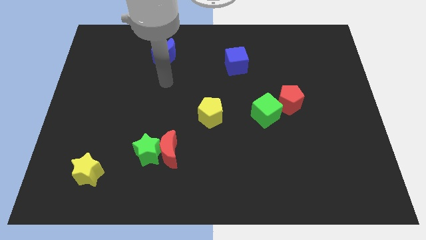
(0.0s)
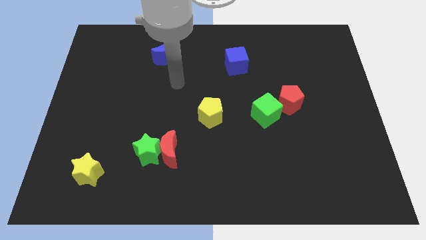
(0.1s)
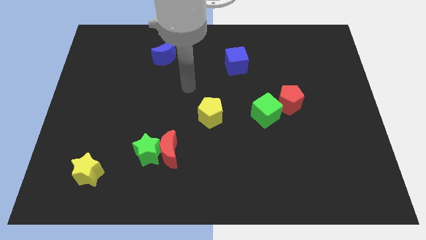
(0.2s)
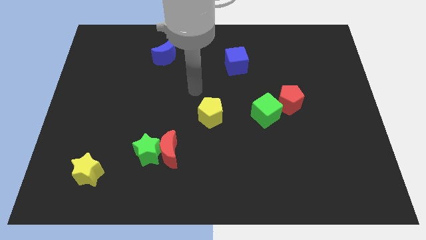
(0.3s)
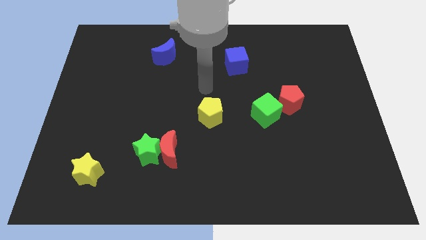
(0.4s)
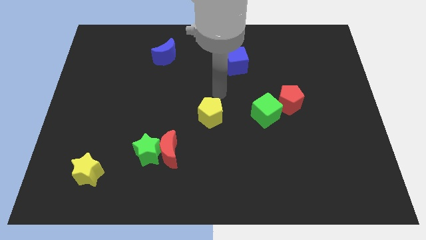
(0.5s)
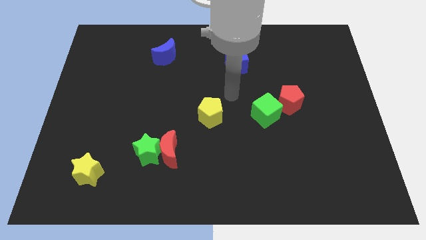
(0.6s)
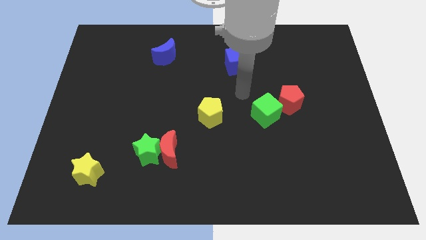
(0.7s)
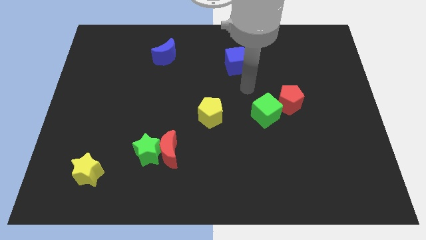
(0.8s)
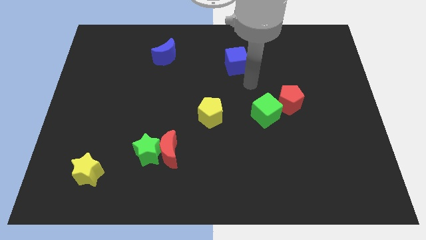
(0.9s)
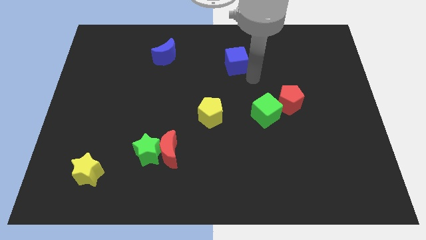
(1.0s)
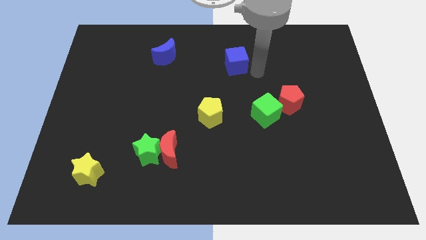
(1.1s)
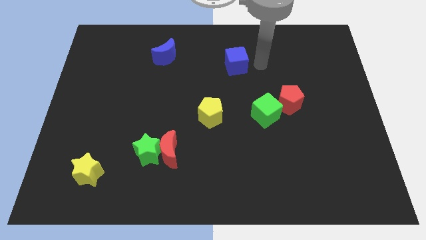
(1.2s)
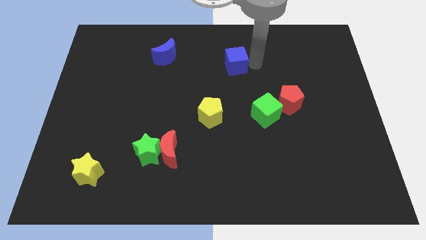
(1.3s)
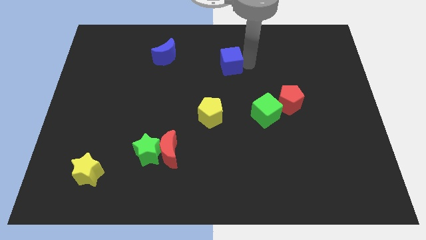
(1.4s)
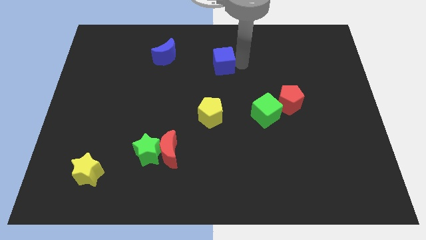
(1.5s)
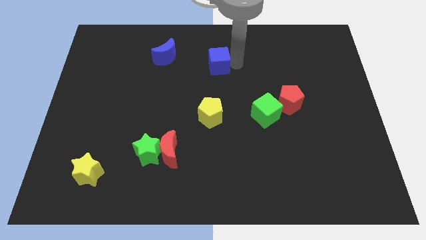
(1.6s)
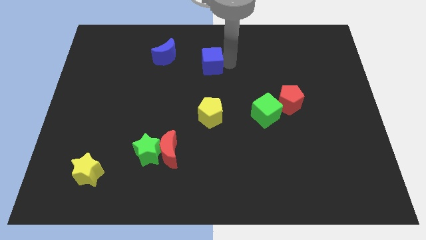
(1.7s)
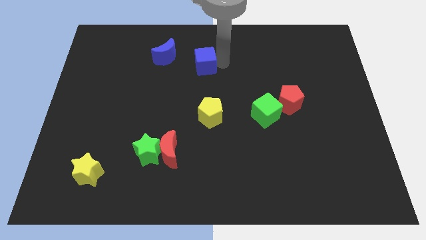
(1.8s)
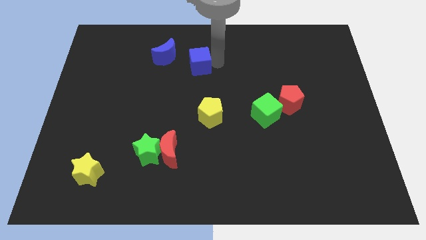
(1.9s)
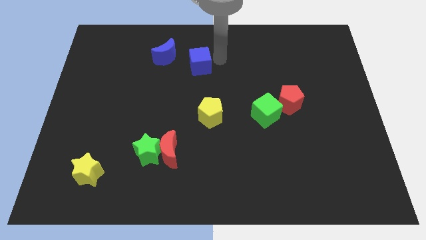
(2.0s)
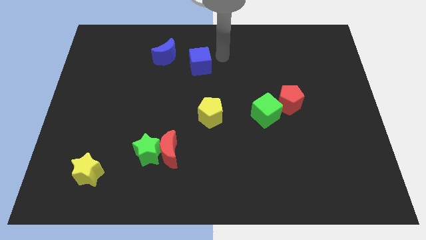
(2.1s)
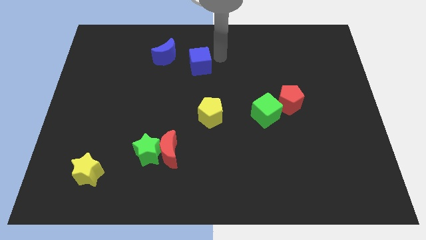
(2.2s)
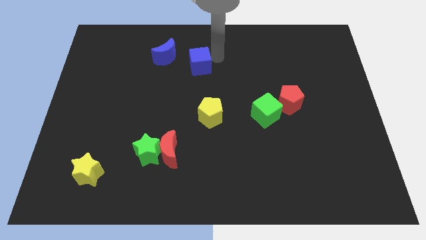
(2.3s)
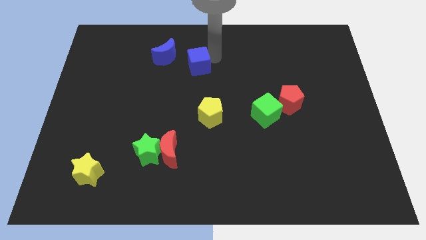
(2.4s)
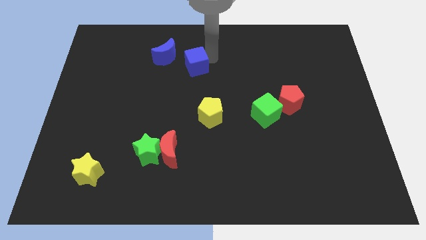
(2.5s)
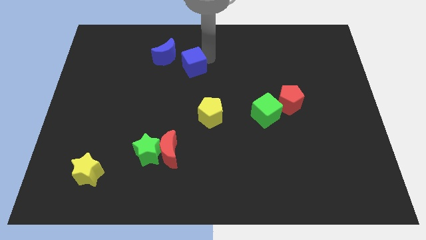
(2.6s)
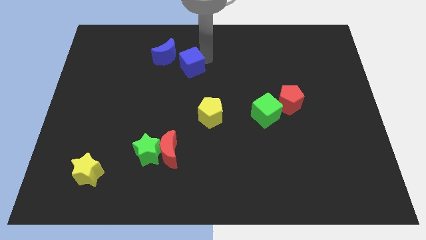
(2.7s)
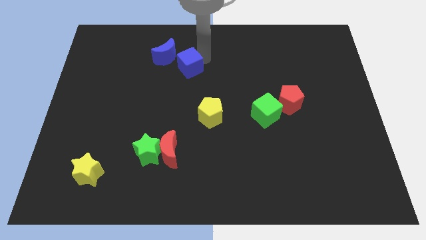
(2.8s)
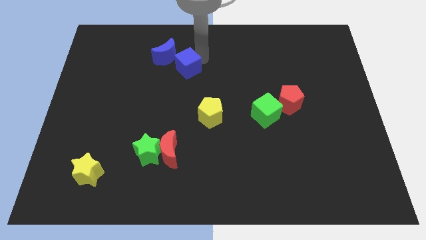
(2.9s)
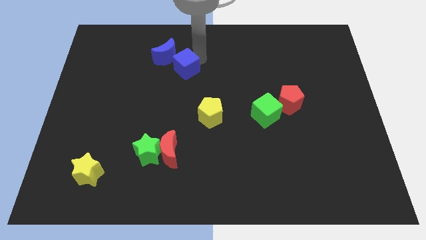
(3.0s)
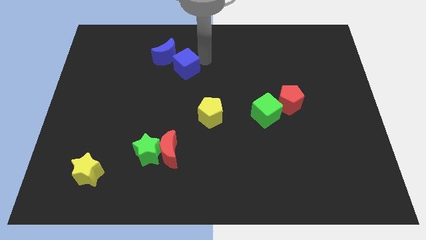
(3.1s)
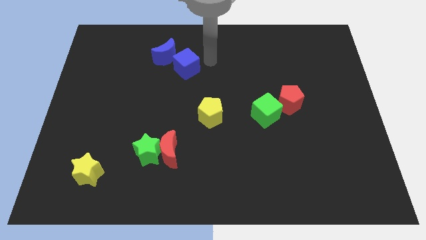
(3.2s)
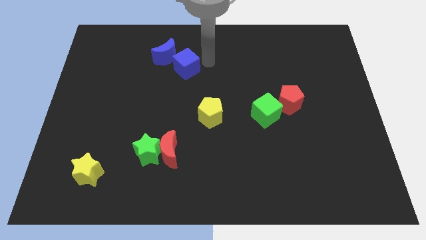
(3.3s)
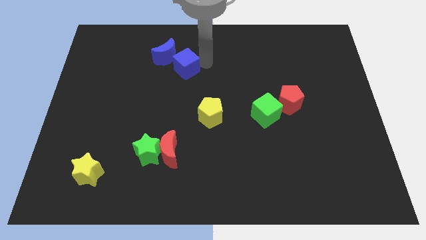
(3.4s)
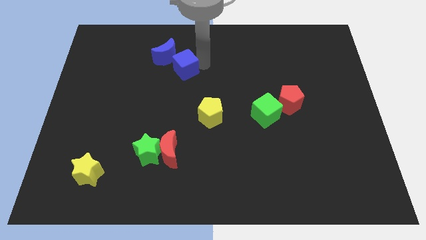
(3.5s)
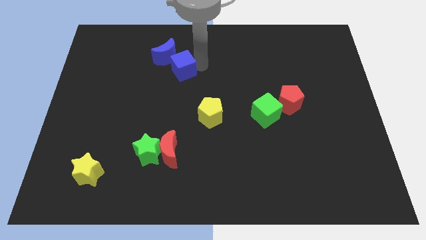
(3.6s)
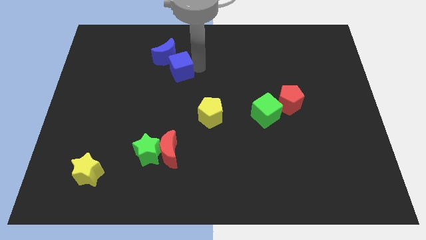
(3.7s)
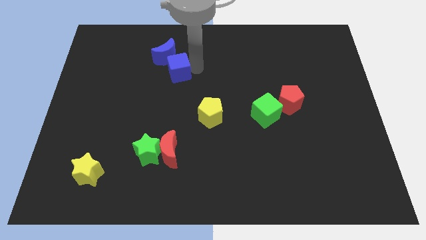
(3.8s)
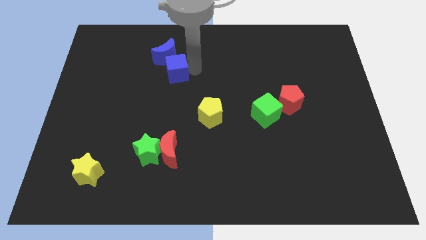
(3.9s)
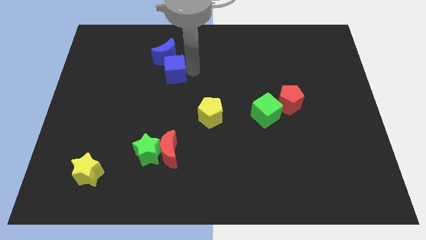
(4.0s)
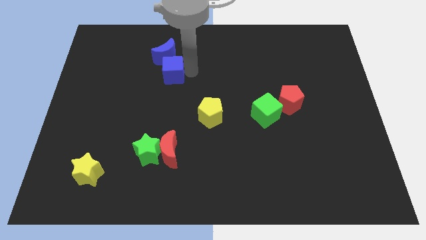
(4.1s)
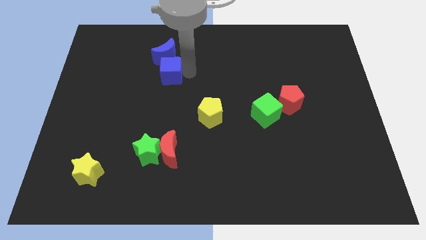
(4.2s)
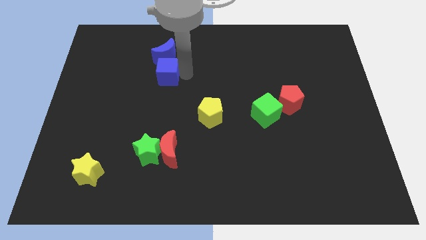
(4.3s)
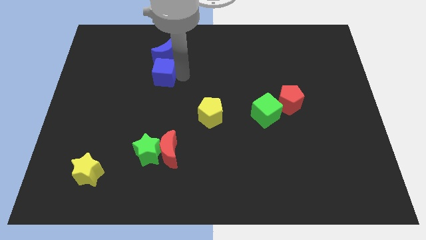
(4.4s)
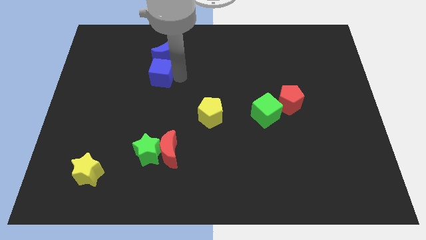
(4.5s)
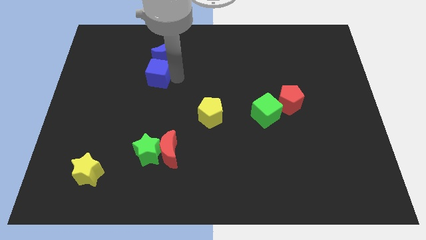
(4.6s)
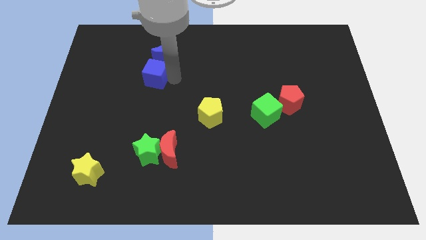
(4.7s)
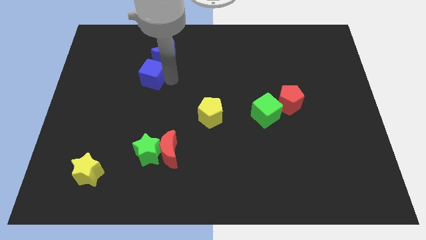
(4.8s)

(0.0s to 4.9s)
move the blue cube to the left

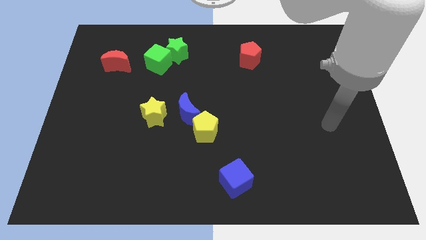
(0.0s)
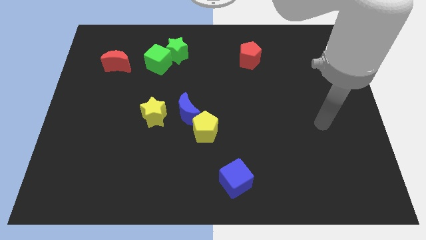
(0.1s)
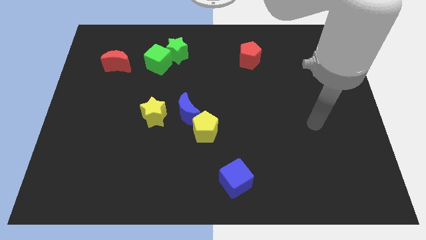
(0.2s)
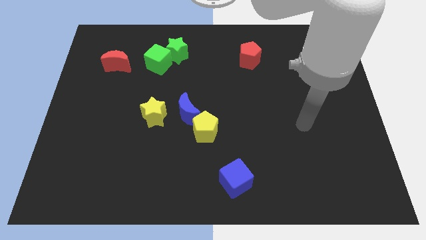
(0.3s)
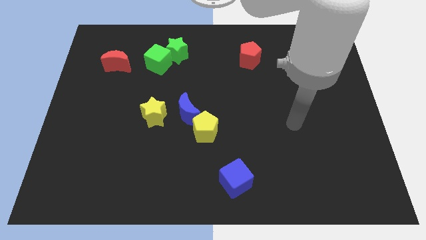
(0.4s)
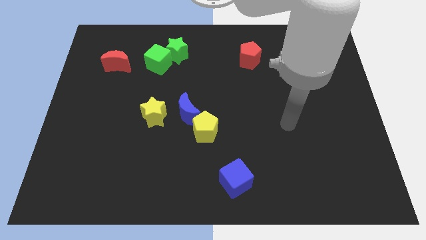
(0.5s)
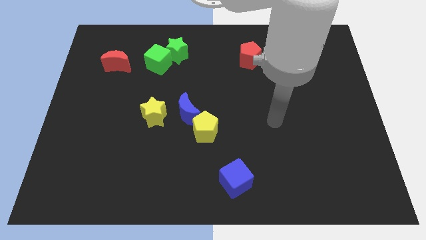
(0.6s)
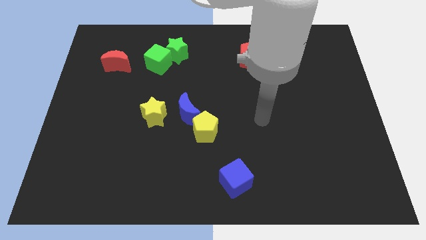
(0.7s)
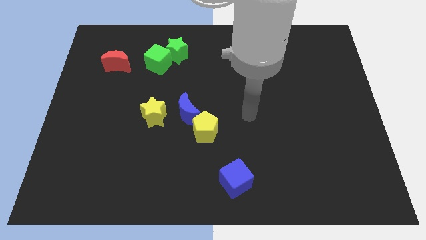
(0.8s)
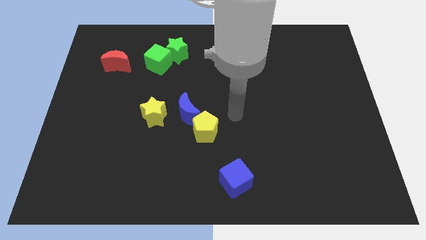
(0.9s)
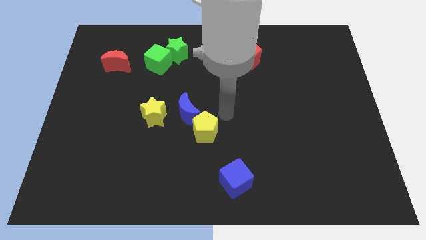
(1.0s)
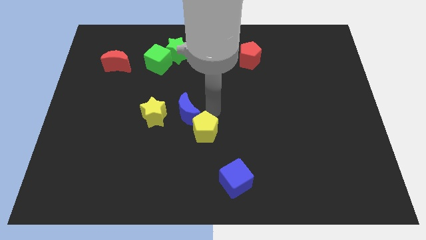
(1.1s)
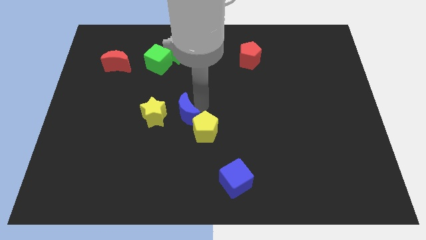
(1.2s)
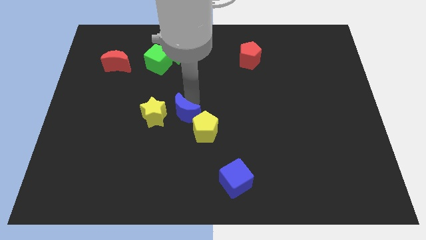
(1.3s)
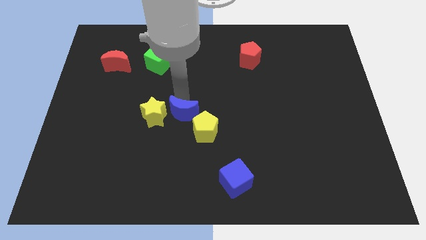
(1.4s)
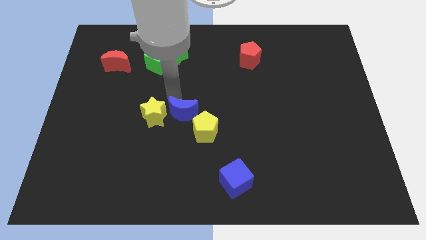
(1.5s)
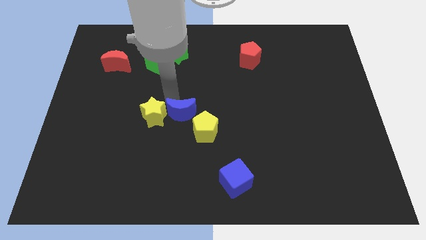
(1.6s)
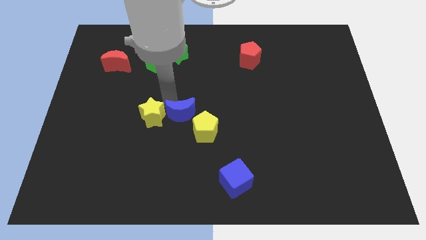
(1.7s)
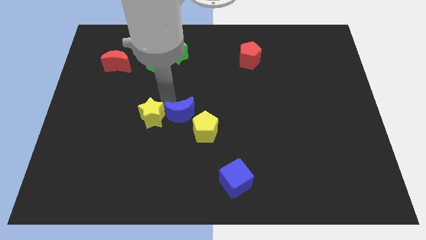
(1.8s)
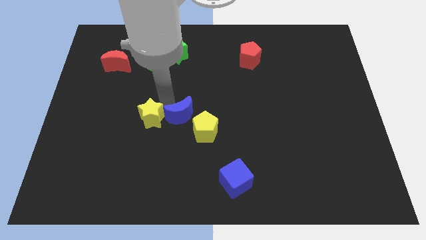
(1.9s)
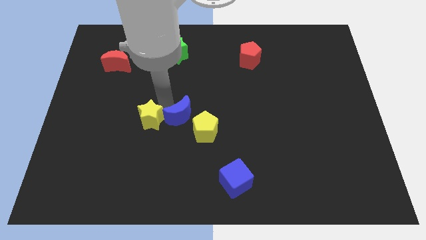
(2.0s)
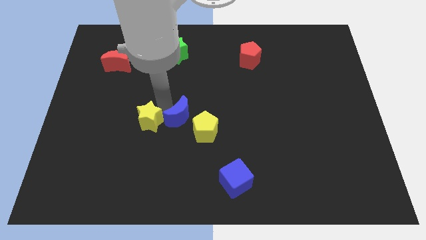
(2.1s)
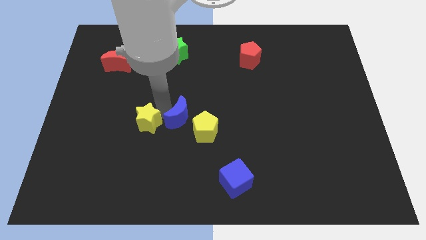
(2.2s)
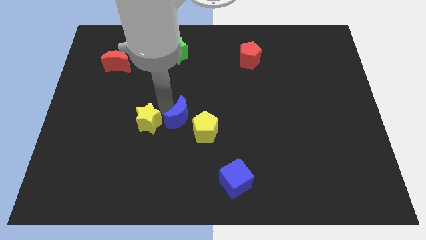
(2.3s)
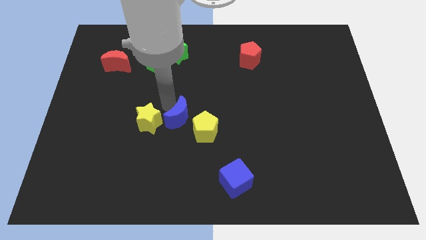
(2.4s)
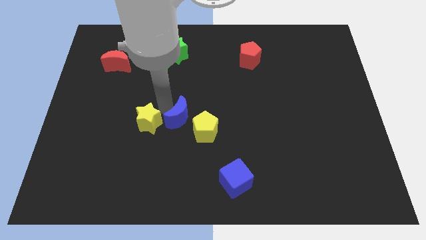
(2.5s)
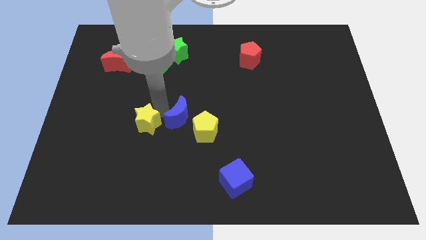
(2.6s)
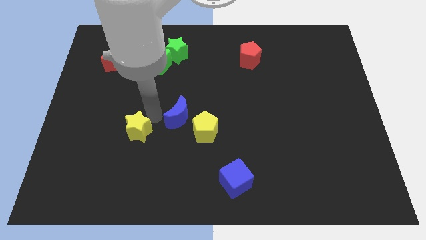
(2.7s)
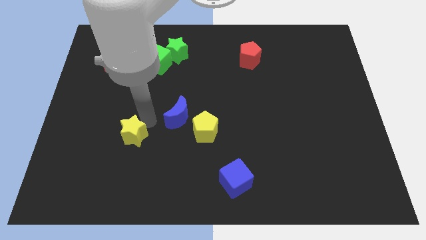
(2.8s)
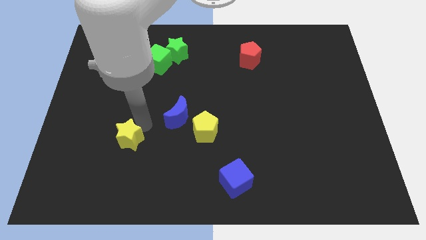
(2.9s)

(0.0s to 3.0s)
slightly slide the yellow star downwards and then to the left
